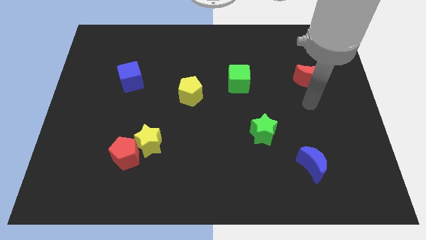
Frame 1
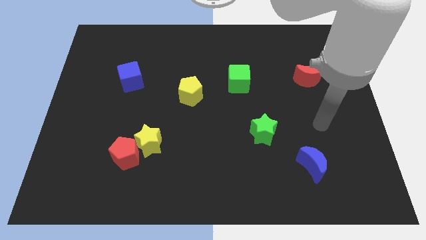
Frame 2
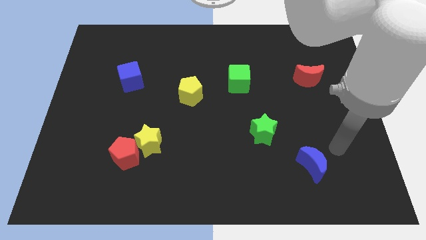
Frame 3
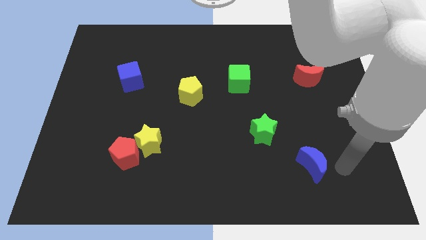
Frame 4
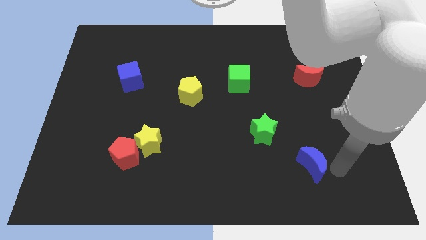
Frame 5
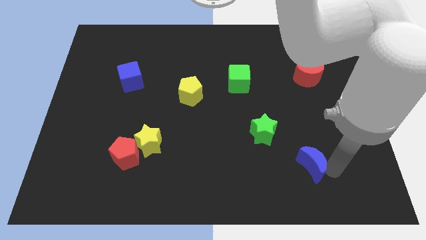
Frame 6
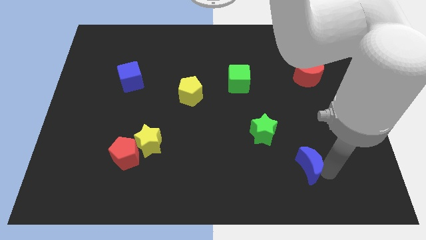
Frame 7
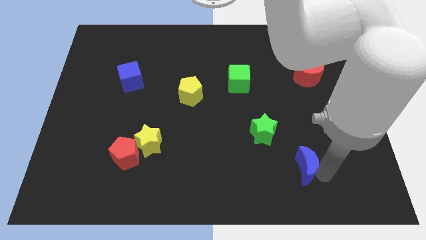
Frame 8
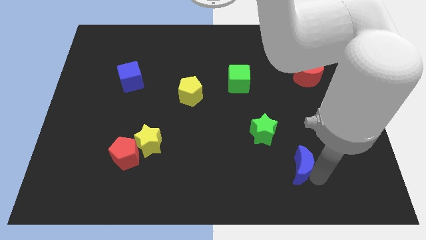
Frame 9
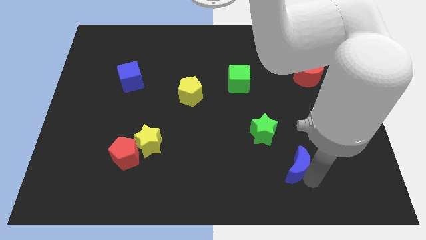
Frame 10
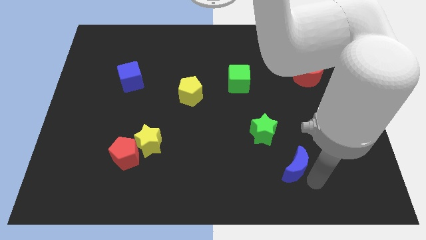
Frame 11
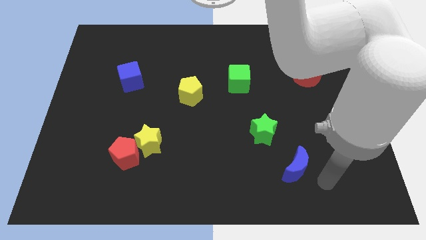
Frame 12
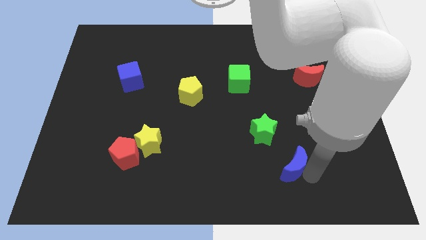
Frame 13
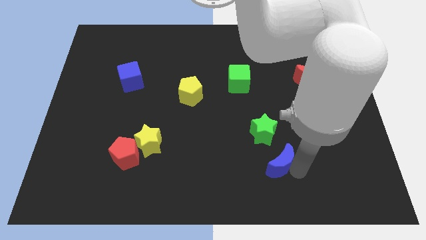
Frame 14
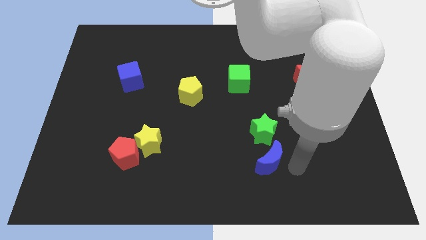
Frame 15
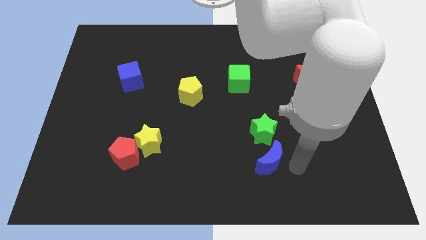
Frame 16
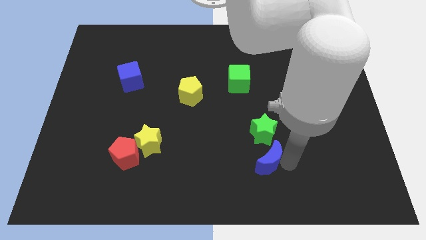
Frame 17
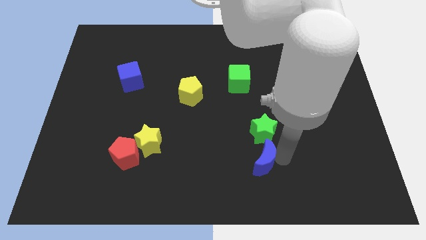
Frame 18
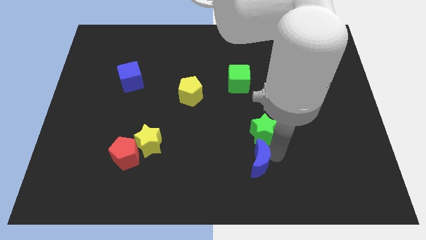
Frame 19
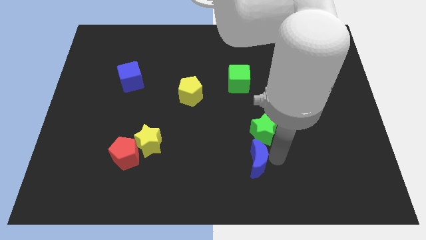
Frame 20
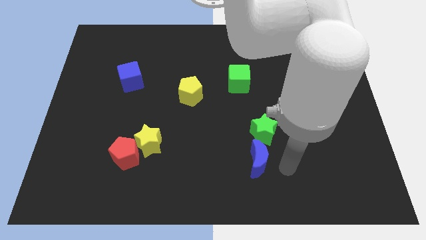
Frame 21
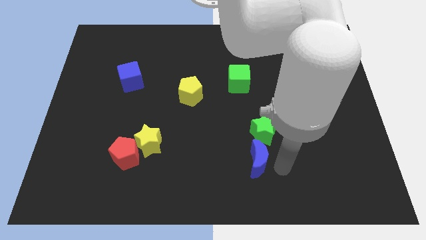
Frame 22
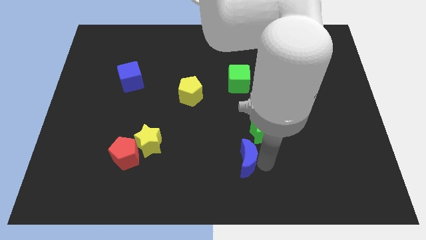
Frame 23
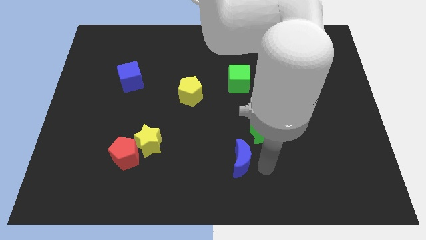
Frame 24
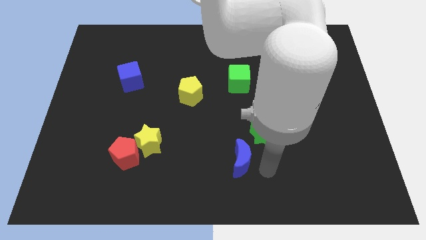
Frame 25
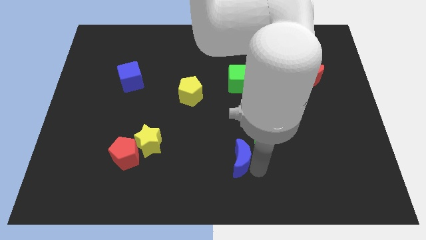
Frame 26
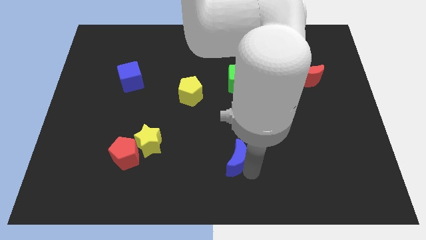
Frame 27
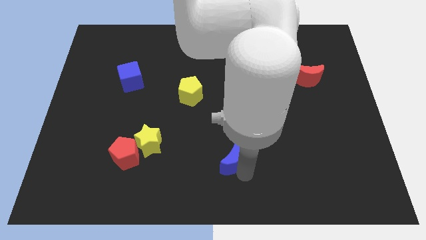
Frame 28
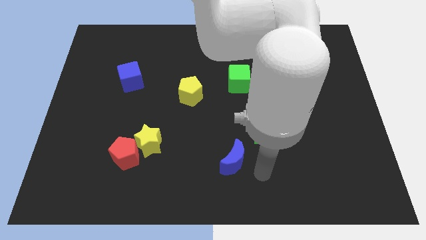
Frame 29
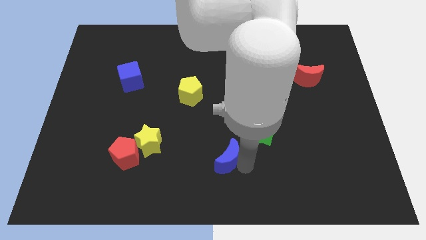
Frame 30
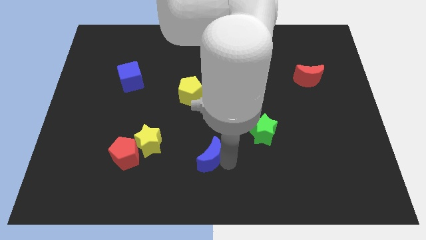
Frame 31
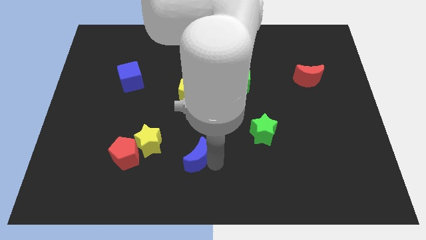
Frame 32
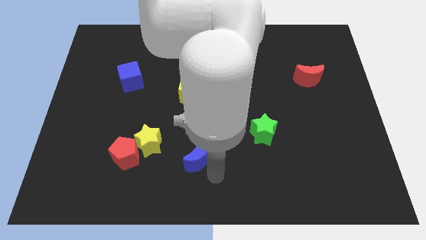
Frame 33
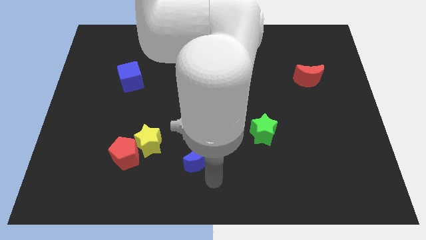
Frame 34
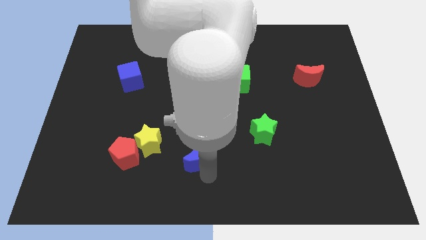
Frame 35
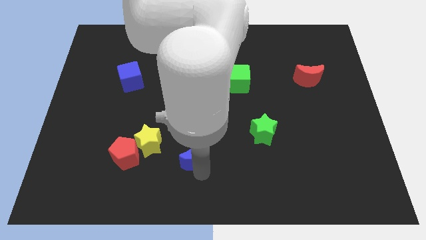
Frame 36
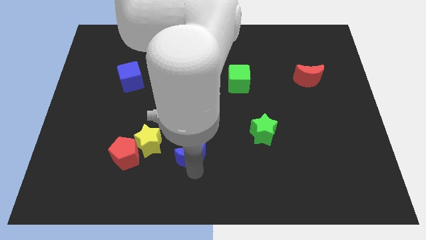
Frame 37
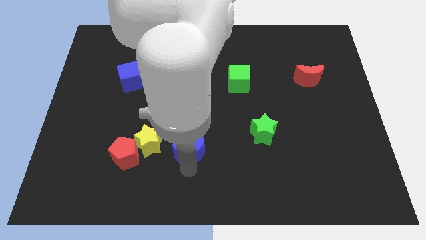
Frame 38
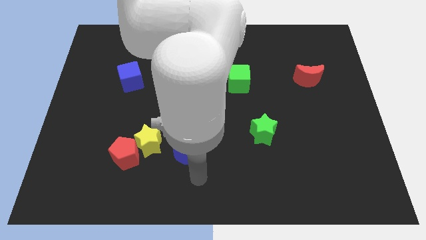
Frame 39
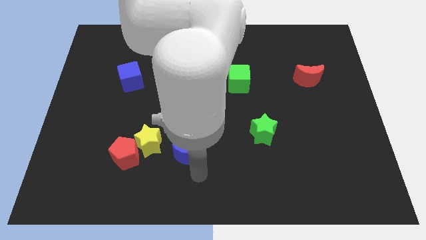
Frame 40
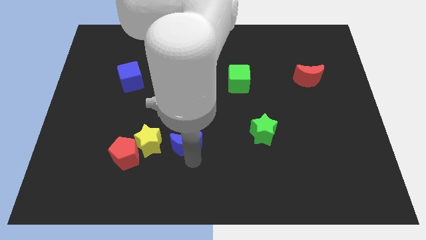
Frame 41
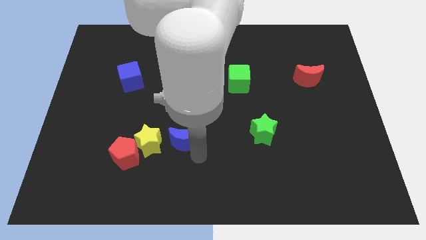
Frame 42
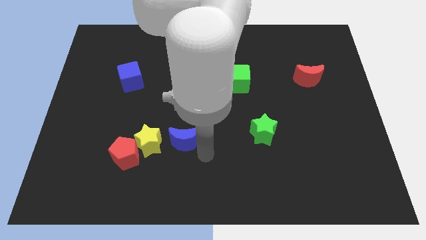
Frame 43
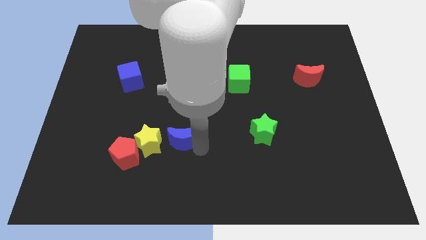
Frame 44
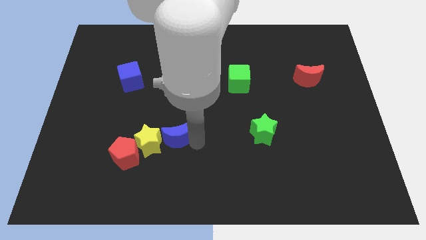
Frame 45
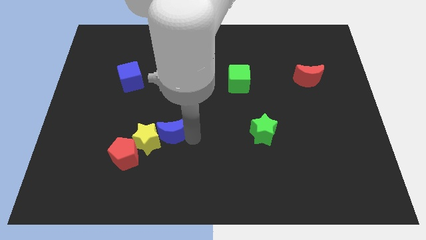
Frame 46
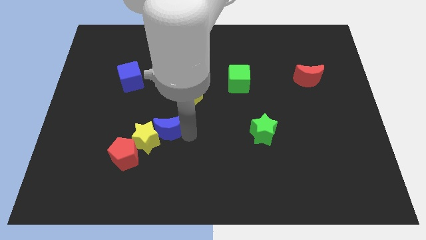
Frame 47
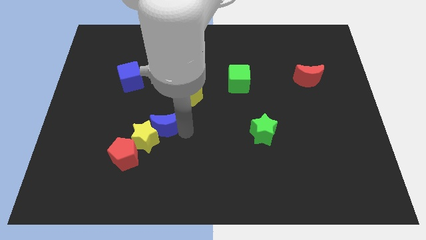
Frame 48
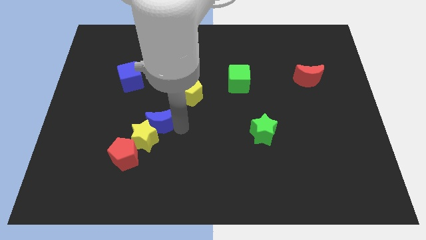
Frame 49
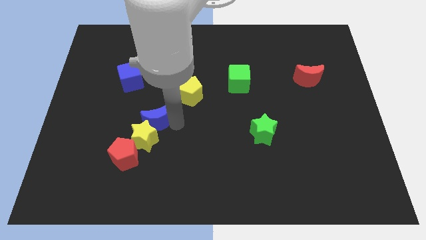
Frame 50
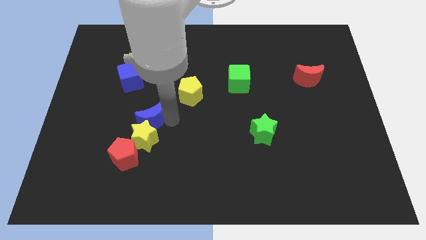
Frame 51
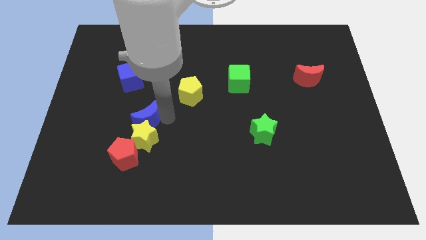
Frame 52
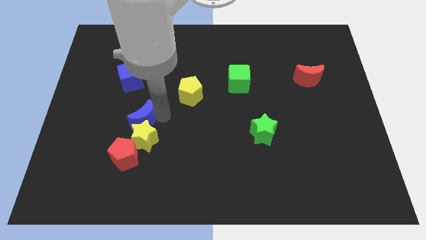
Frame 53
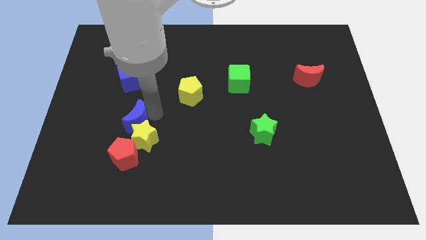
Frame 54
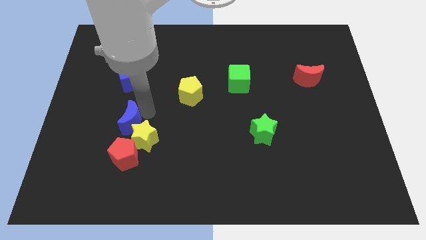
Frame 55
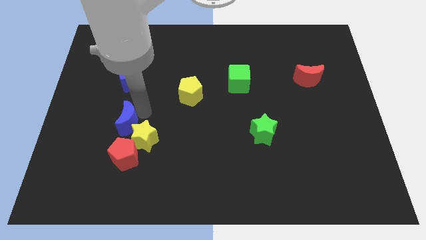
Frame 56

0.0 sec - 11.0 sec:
move the blue moon left of the yellow star

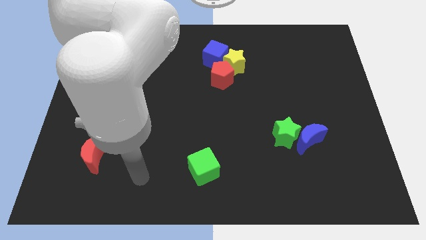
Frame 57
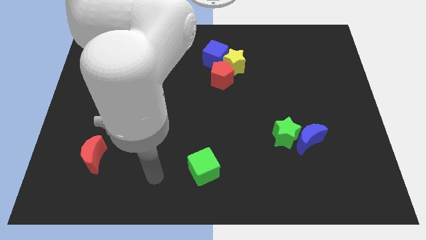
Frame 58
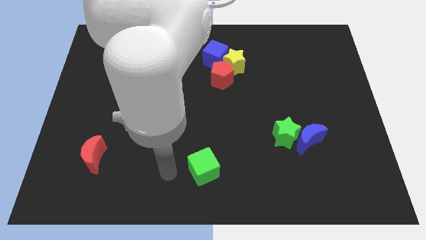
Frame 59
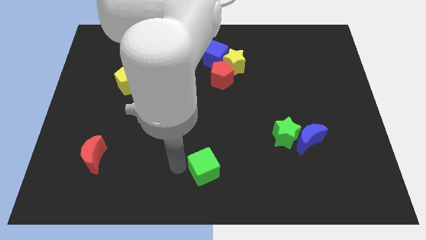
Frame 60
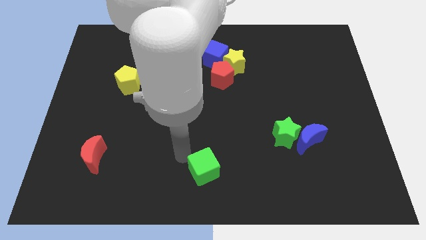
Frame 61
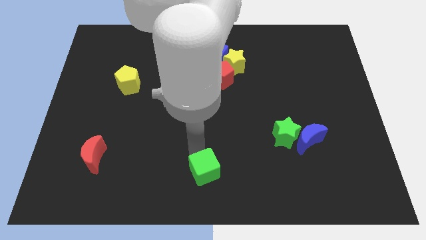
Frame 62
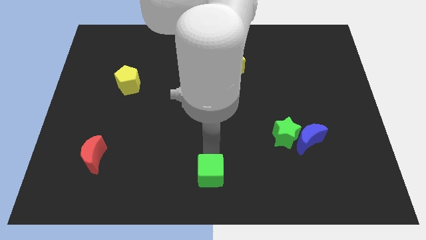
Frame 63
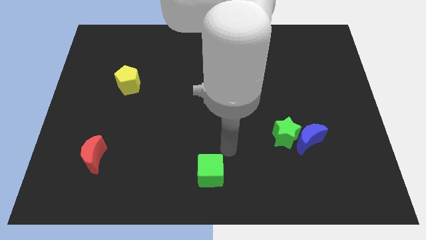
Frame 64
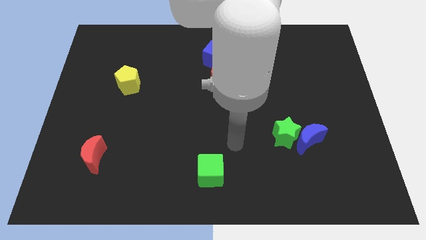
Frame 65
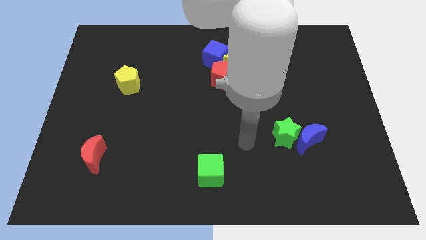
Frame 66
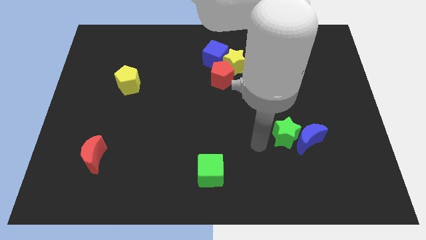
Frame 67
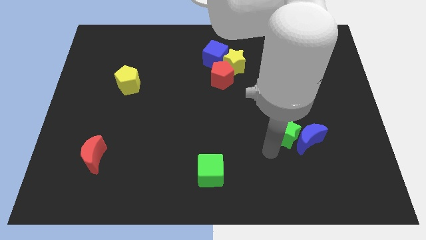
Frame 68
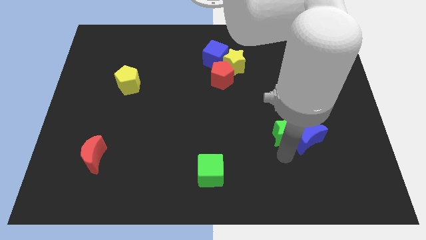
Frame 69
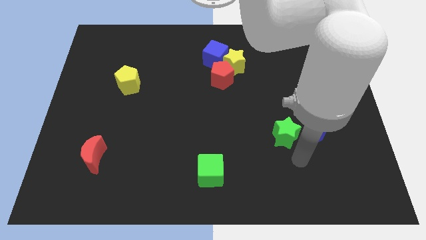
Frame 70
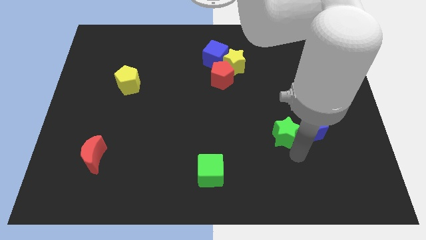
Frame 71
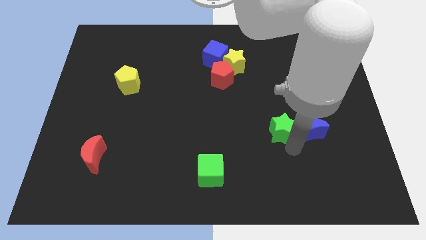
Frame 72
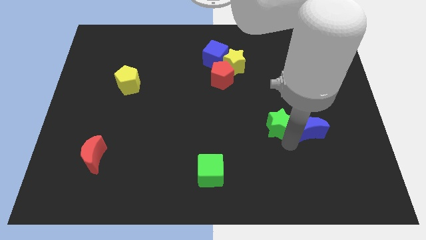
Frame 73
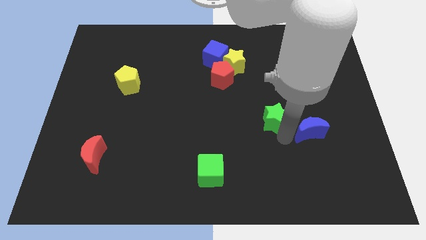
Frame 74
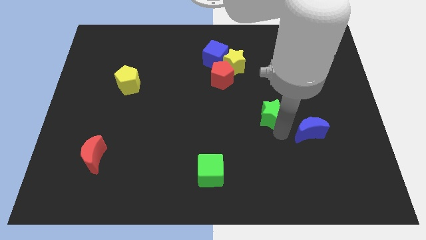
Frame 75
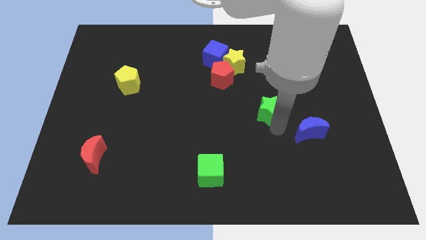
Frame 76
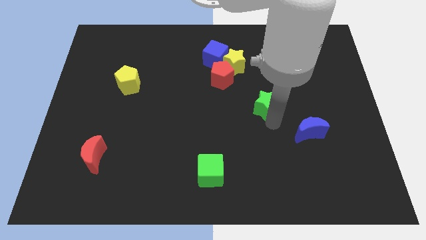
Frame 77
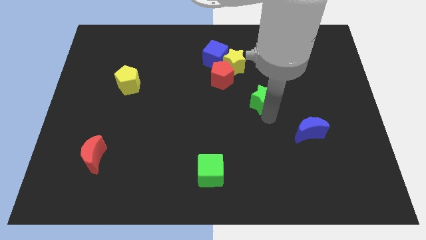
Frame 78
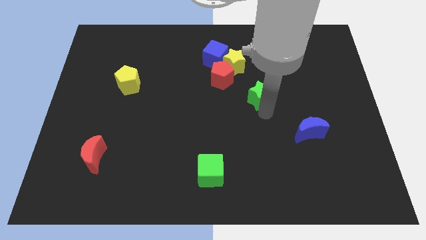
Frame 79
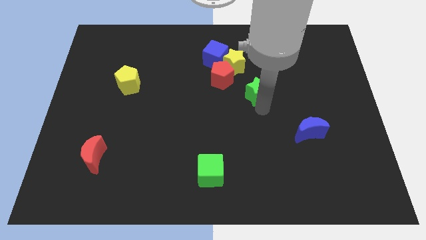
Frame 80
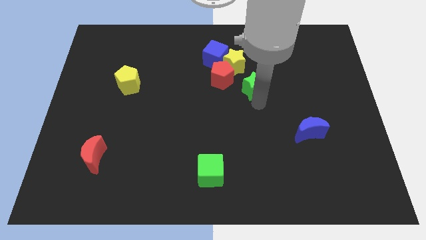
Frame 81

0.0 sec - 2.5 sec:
move the green star right of the red pentagon
